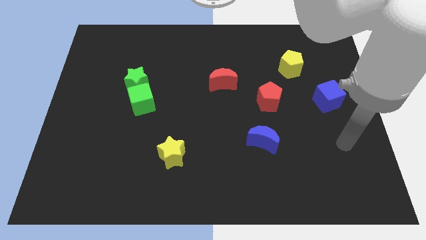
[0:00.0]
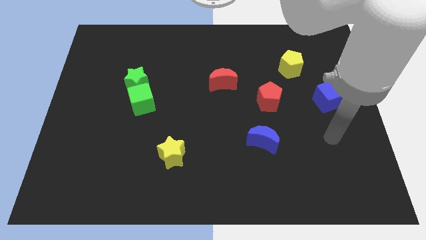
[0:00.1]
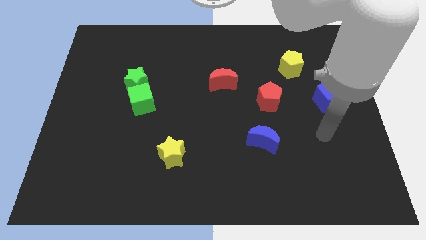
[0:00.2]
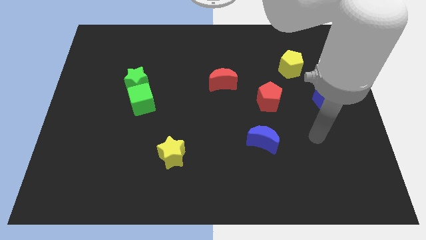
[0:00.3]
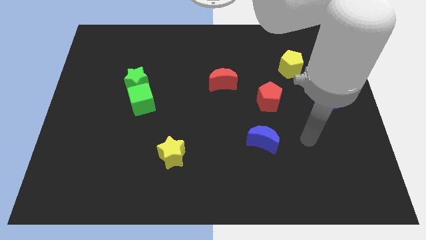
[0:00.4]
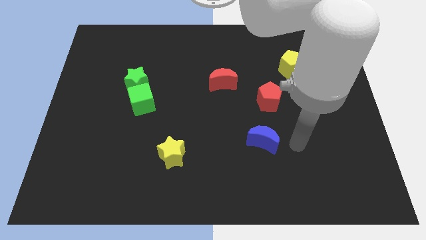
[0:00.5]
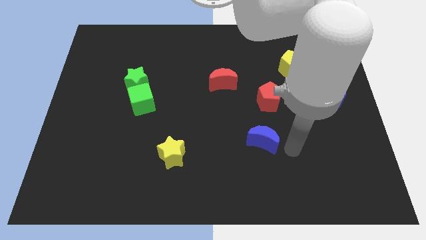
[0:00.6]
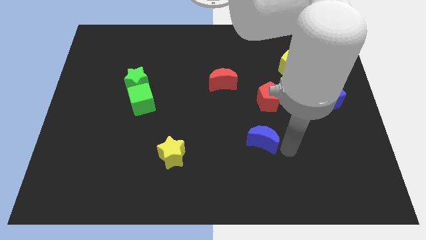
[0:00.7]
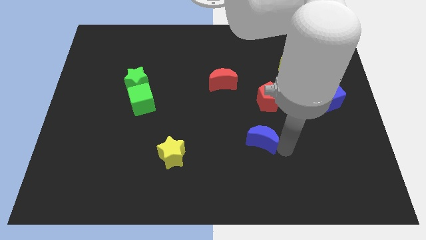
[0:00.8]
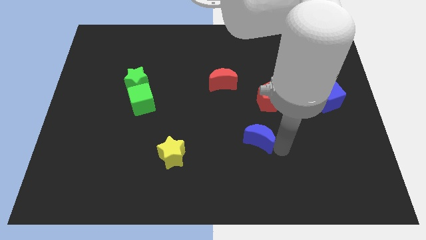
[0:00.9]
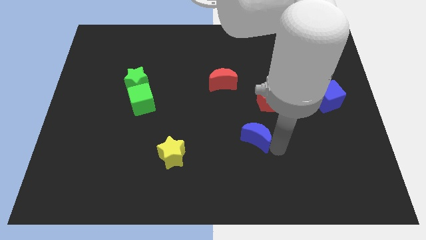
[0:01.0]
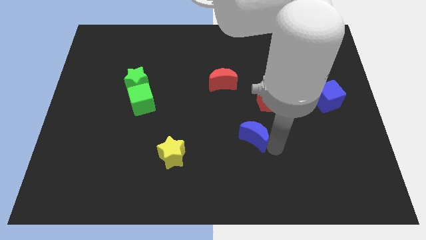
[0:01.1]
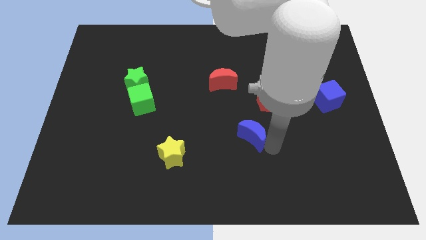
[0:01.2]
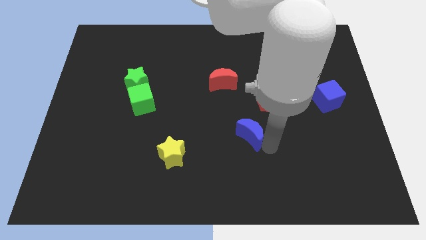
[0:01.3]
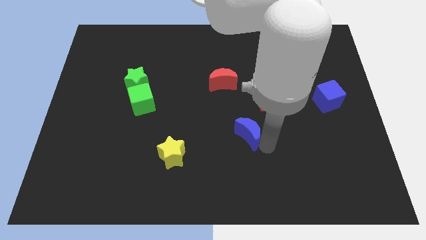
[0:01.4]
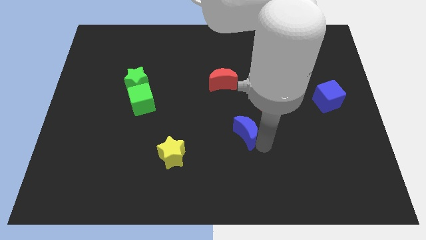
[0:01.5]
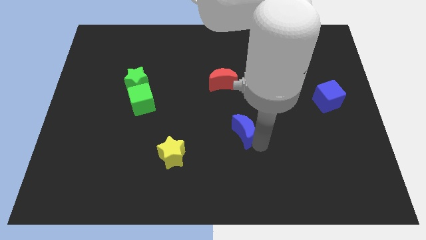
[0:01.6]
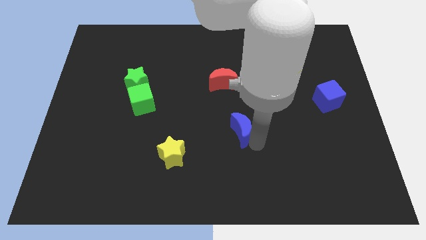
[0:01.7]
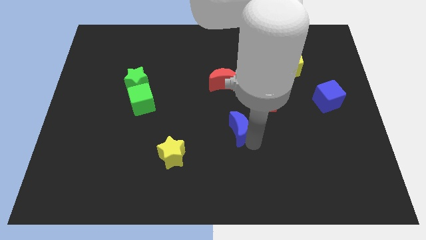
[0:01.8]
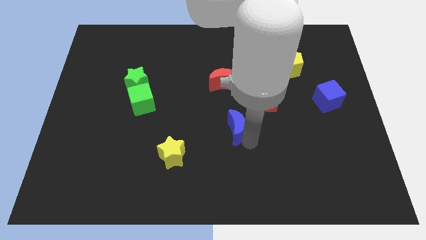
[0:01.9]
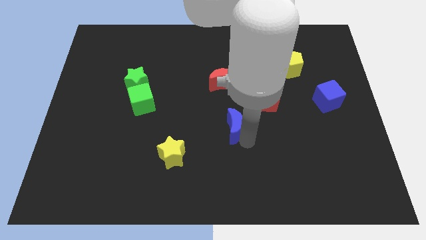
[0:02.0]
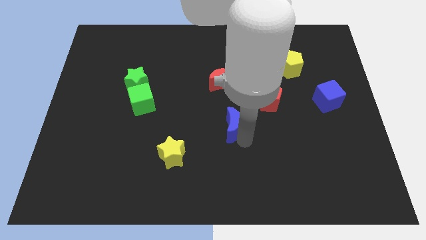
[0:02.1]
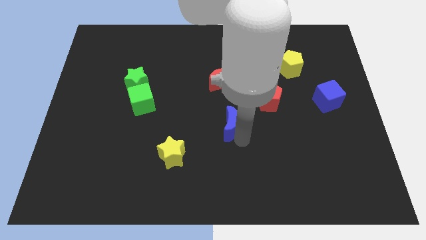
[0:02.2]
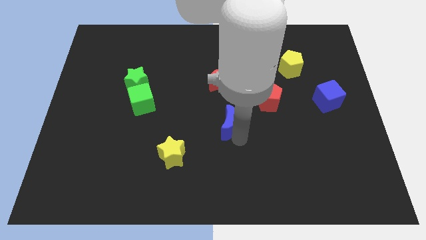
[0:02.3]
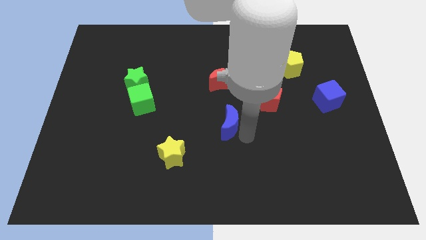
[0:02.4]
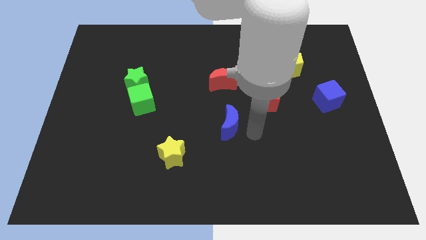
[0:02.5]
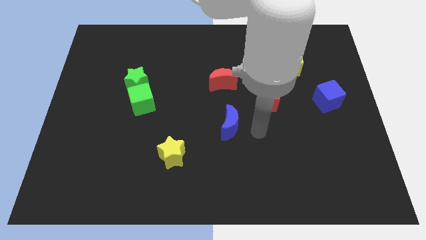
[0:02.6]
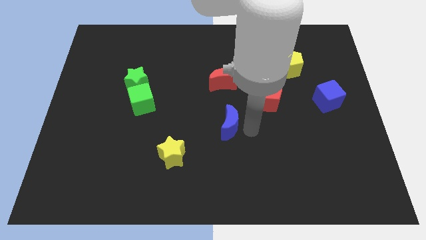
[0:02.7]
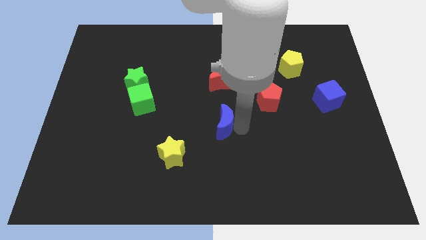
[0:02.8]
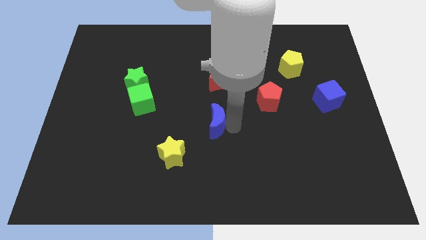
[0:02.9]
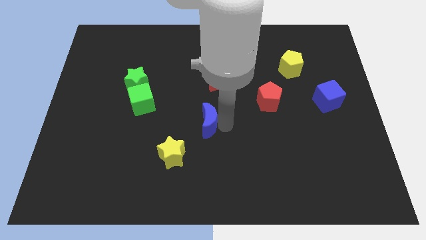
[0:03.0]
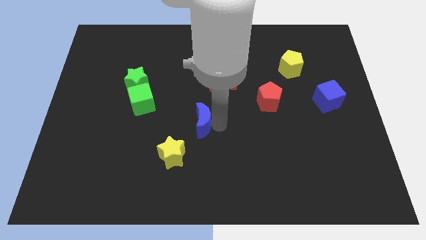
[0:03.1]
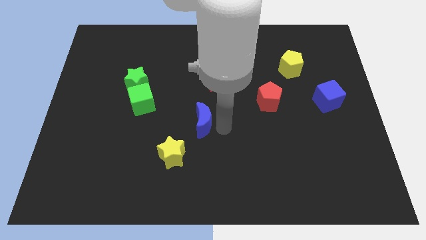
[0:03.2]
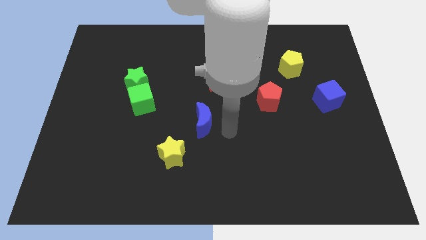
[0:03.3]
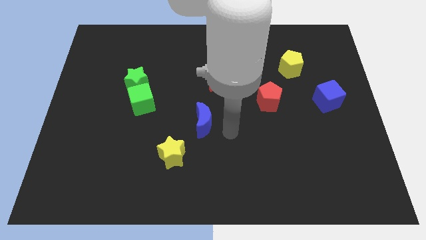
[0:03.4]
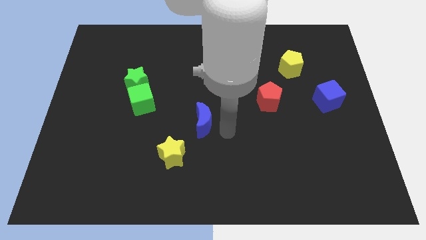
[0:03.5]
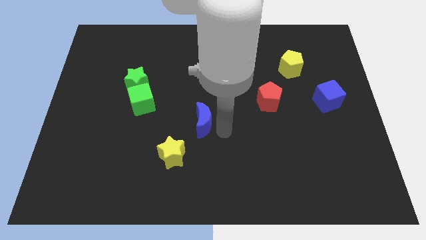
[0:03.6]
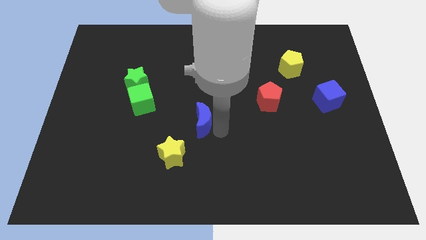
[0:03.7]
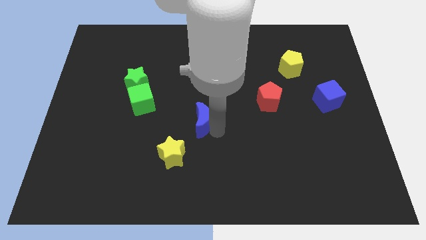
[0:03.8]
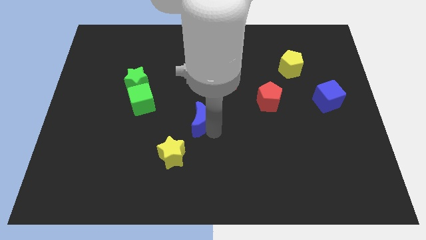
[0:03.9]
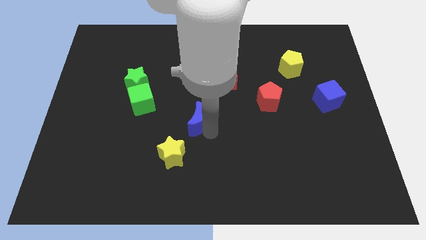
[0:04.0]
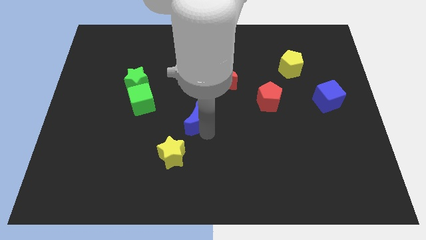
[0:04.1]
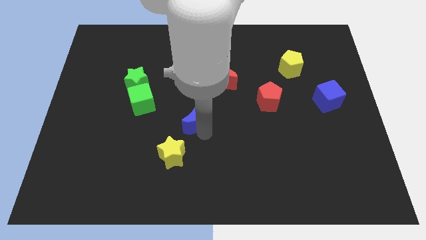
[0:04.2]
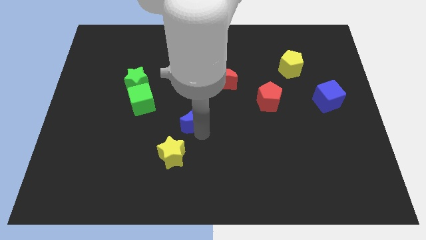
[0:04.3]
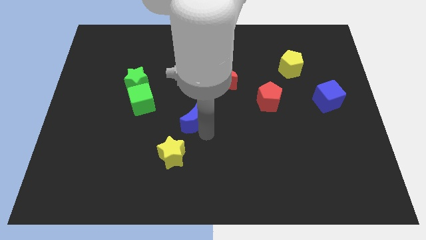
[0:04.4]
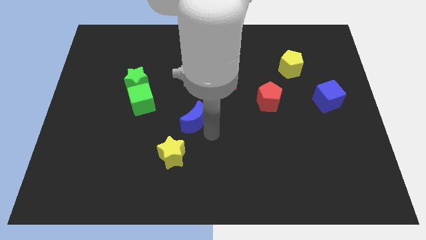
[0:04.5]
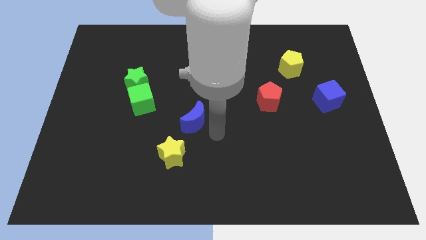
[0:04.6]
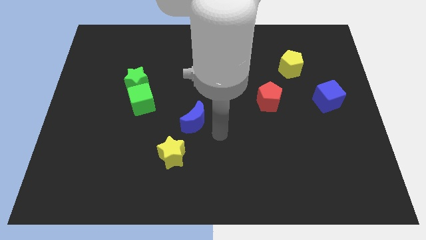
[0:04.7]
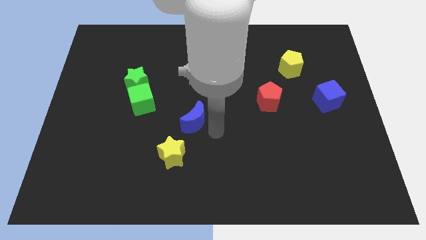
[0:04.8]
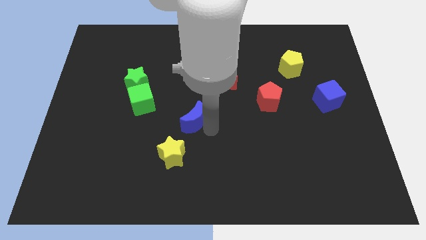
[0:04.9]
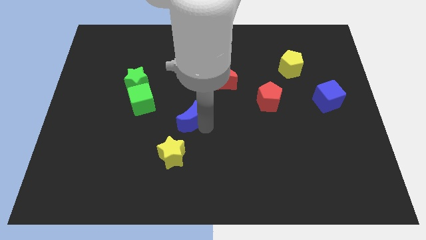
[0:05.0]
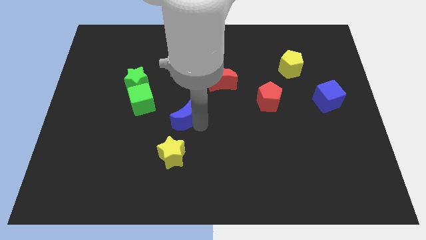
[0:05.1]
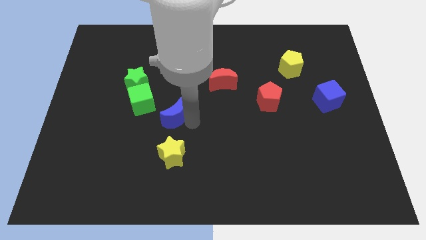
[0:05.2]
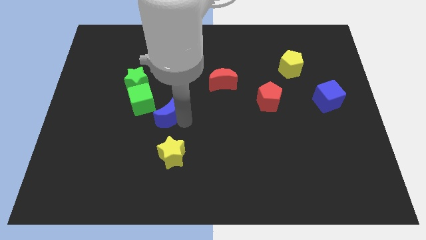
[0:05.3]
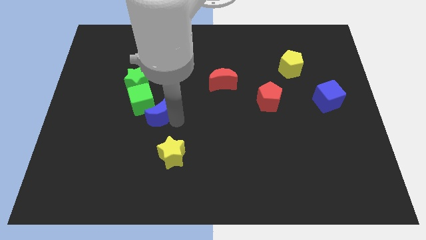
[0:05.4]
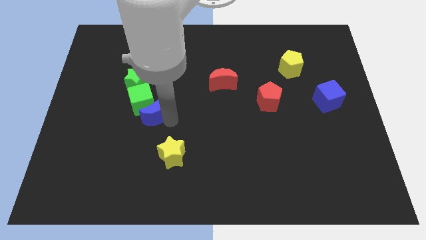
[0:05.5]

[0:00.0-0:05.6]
slide the blue moon towards the green cube

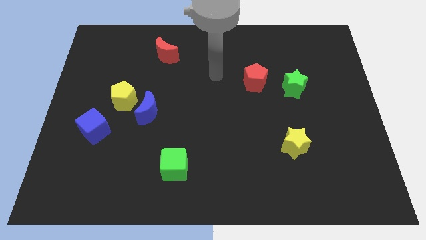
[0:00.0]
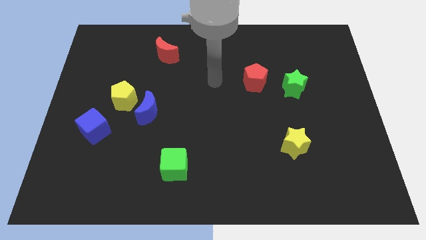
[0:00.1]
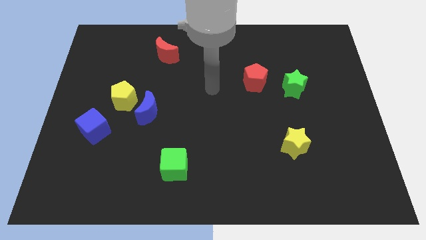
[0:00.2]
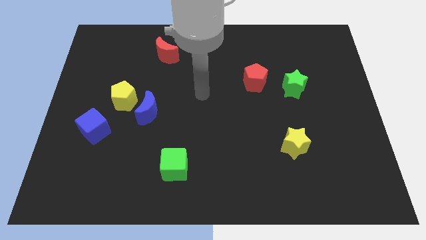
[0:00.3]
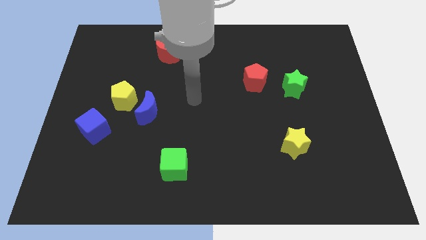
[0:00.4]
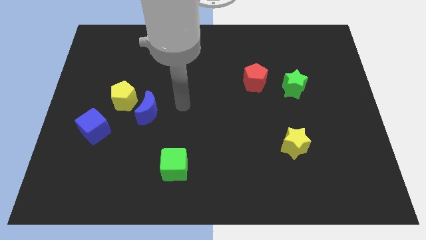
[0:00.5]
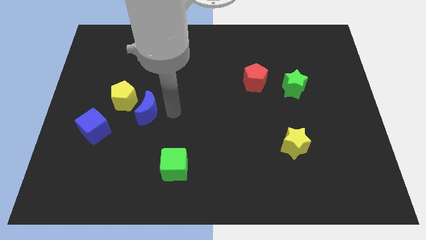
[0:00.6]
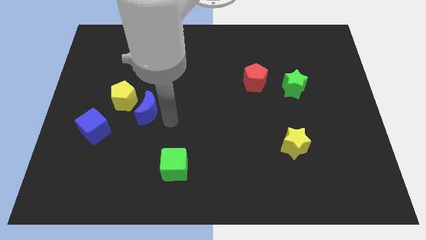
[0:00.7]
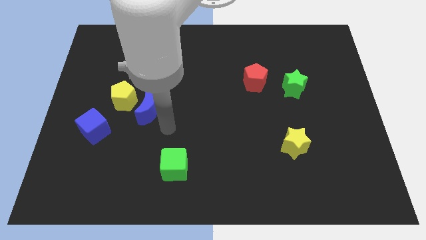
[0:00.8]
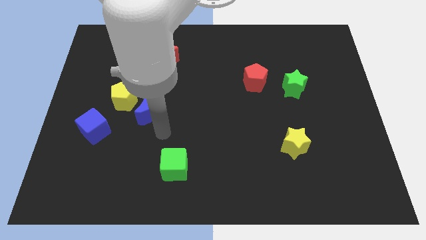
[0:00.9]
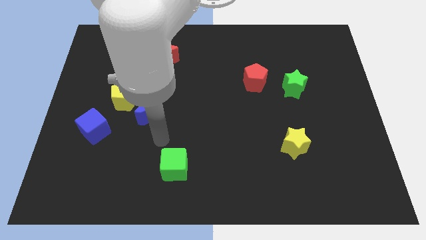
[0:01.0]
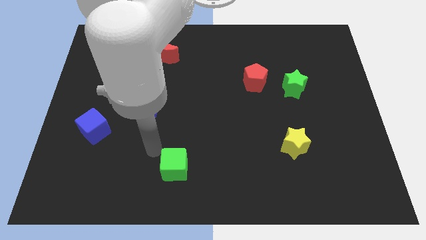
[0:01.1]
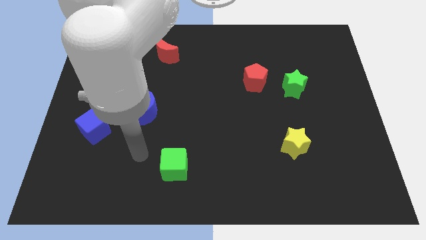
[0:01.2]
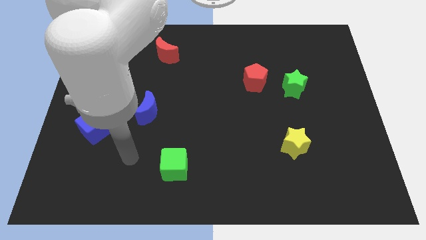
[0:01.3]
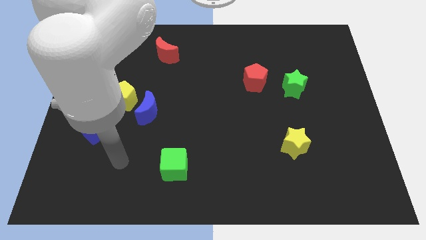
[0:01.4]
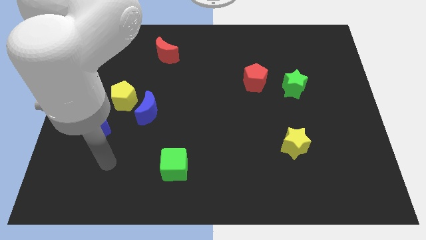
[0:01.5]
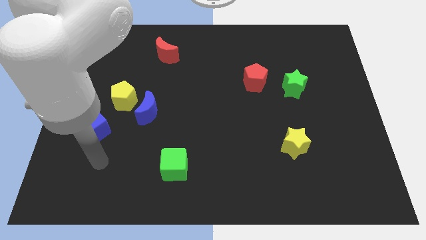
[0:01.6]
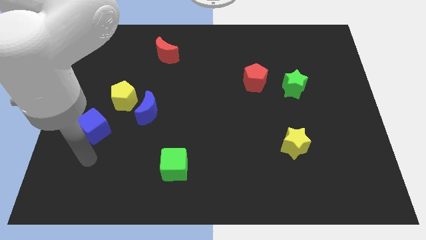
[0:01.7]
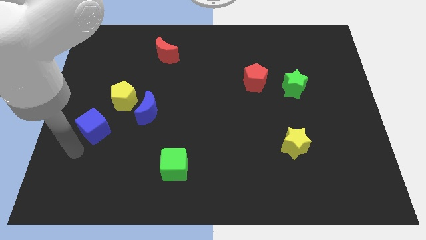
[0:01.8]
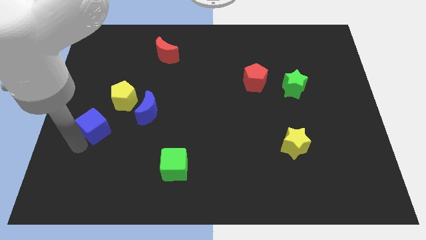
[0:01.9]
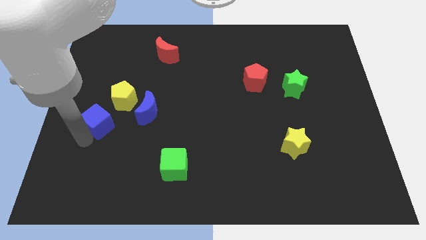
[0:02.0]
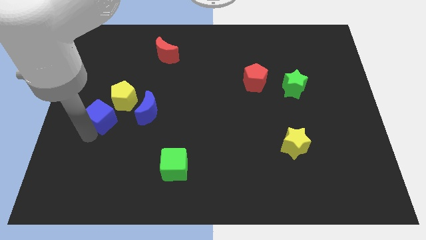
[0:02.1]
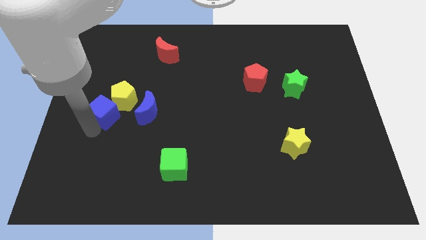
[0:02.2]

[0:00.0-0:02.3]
move the blue cube to the yellow pentagon
